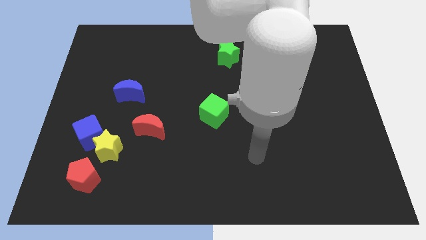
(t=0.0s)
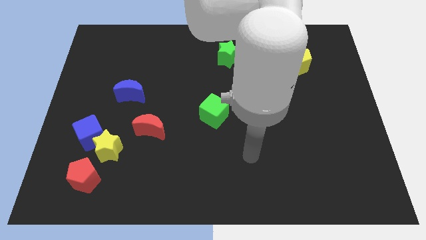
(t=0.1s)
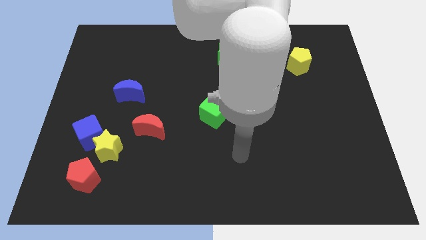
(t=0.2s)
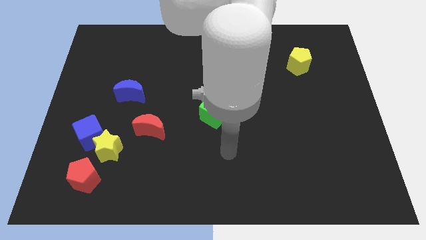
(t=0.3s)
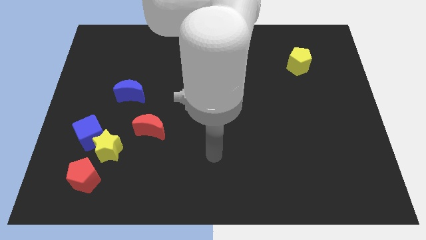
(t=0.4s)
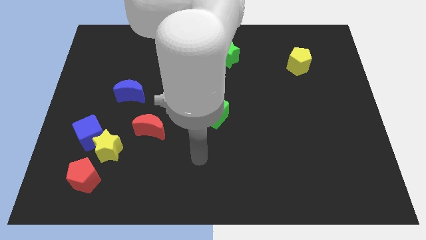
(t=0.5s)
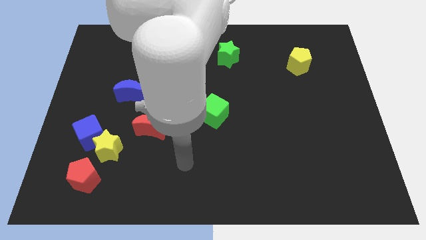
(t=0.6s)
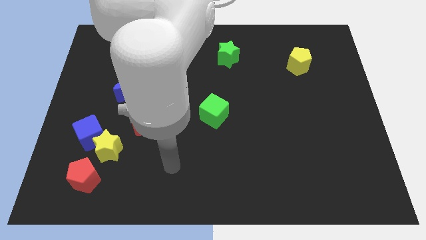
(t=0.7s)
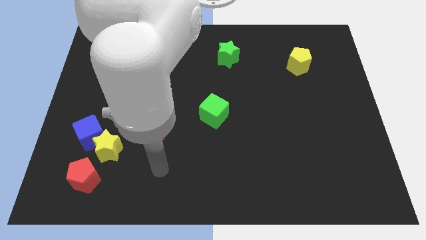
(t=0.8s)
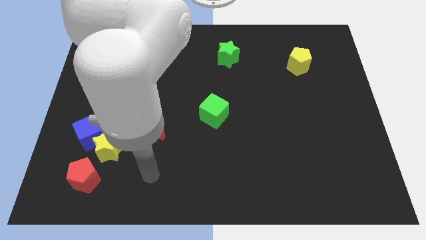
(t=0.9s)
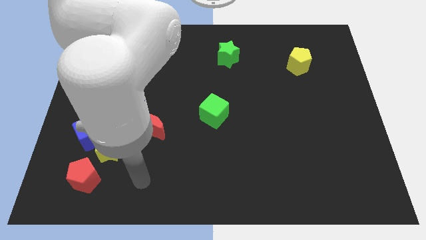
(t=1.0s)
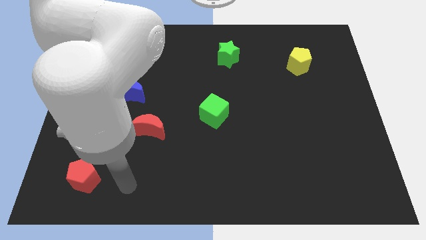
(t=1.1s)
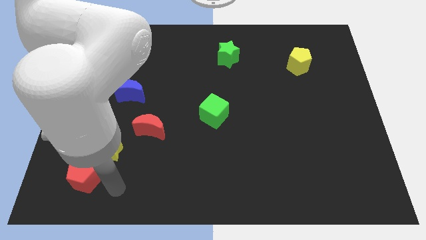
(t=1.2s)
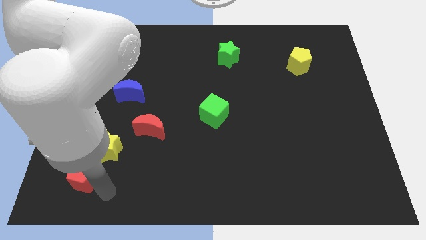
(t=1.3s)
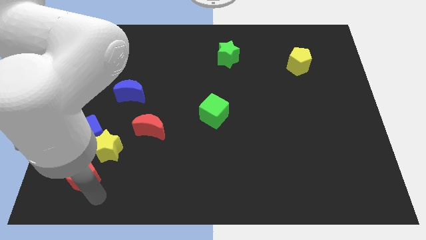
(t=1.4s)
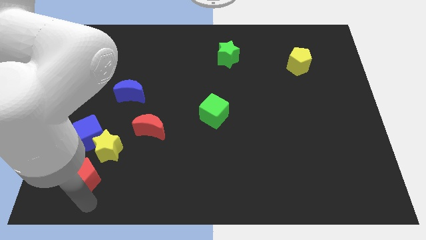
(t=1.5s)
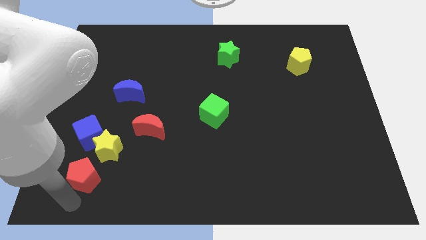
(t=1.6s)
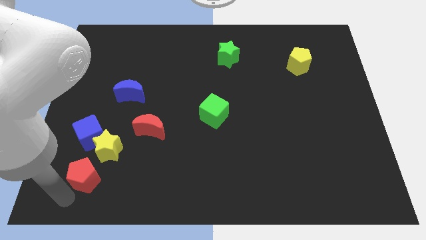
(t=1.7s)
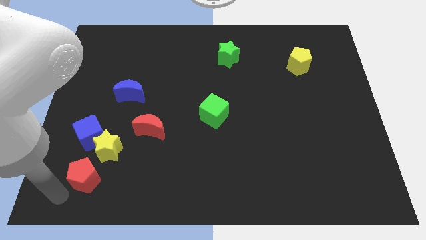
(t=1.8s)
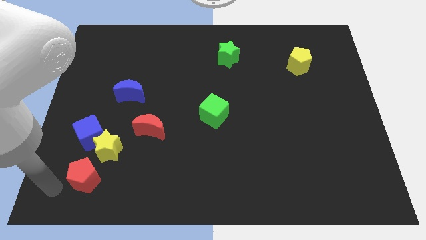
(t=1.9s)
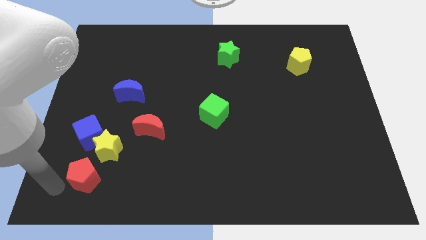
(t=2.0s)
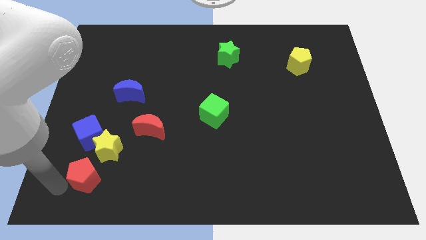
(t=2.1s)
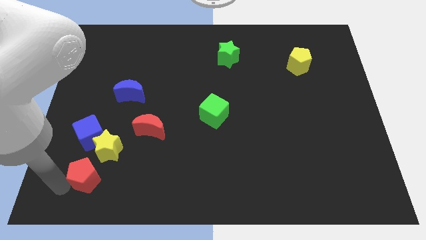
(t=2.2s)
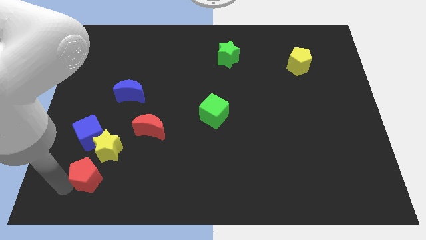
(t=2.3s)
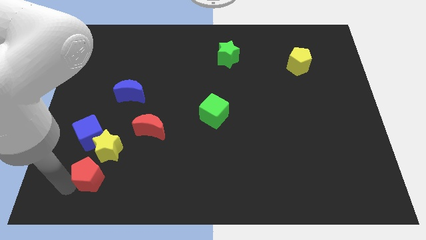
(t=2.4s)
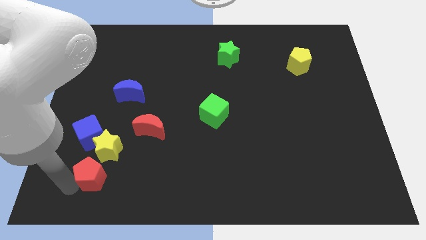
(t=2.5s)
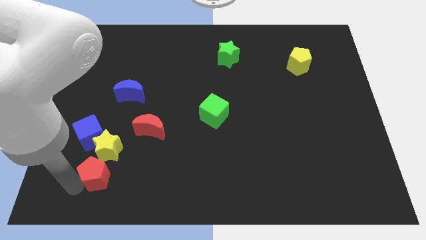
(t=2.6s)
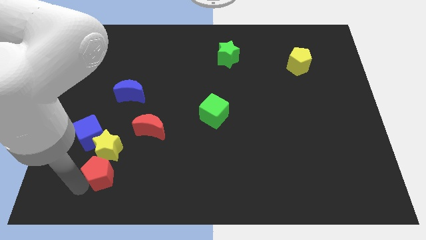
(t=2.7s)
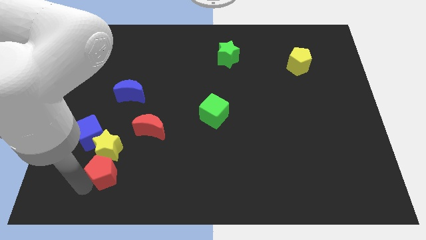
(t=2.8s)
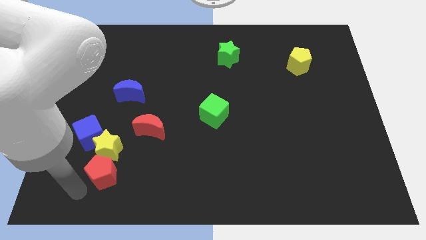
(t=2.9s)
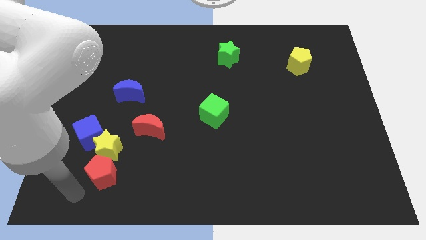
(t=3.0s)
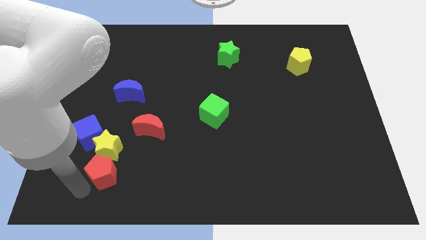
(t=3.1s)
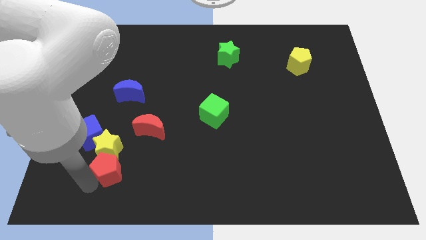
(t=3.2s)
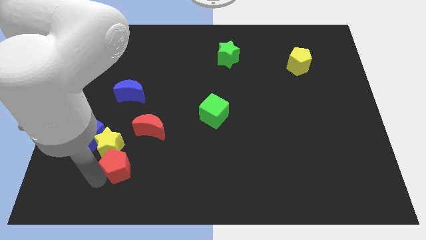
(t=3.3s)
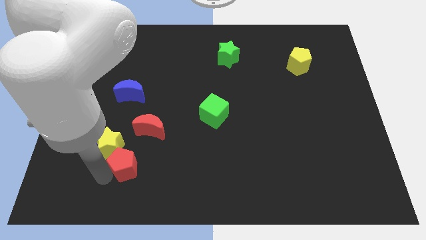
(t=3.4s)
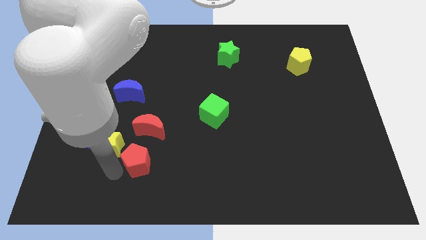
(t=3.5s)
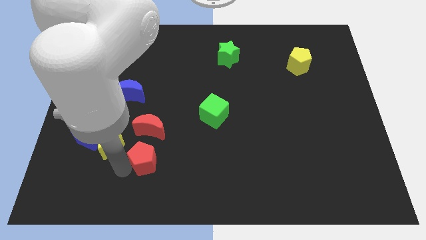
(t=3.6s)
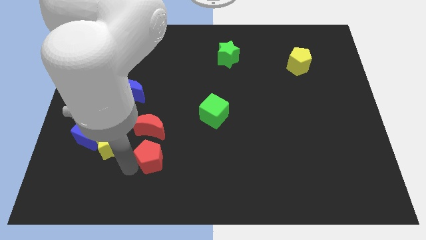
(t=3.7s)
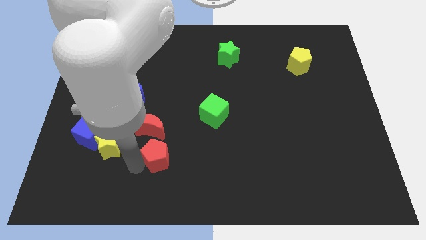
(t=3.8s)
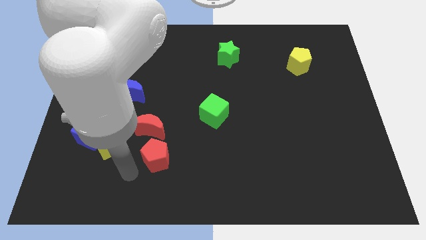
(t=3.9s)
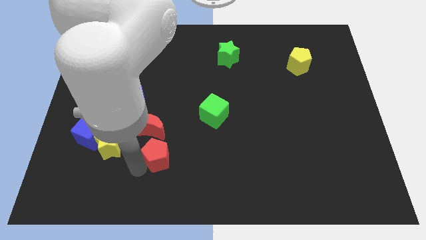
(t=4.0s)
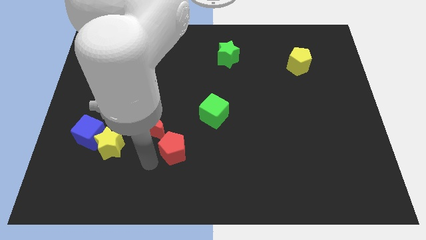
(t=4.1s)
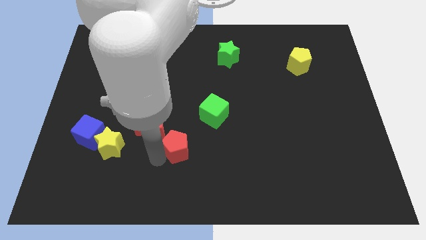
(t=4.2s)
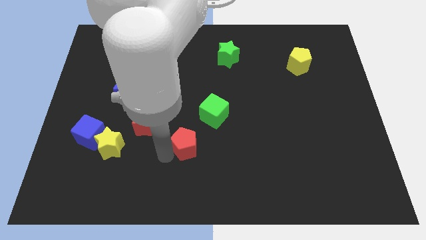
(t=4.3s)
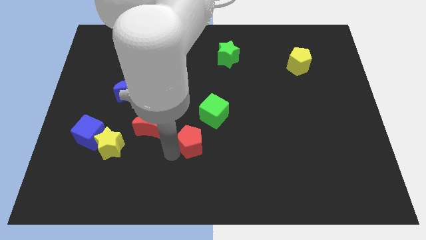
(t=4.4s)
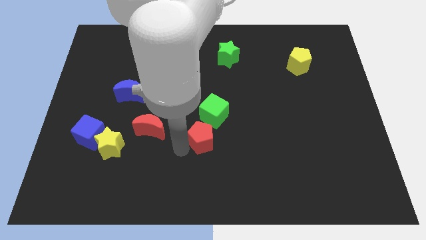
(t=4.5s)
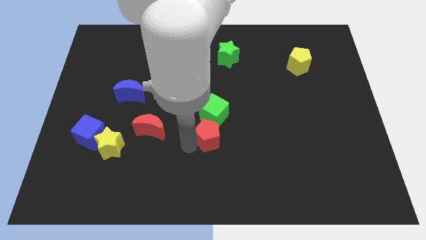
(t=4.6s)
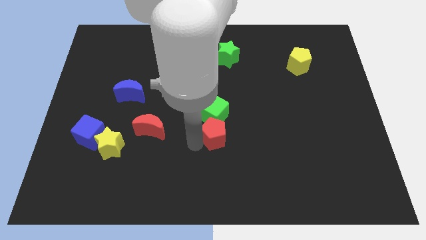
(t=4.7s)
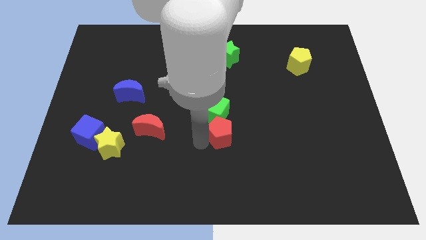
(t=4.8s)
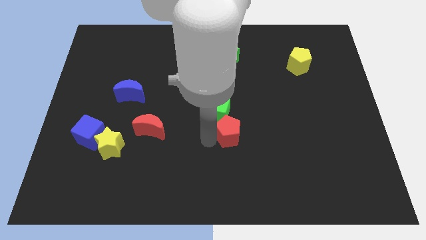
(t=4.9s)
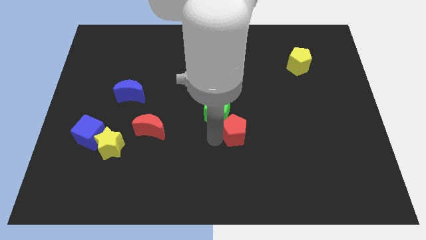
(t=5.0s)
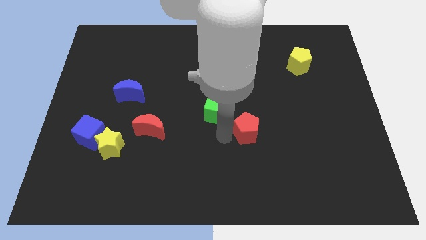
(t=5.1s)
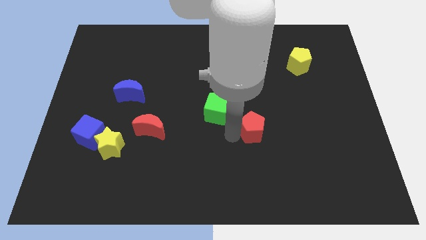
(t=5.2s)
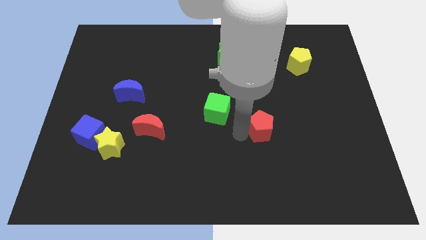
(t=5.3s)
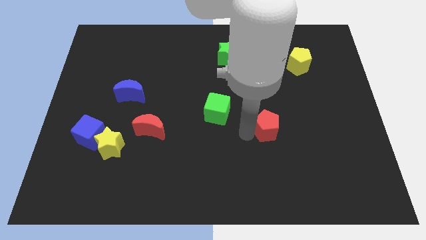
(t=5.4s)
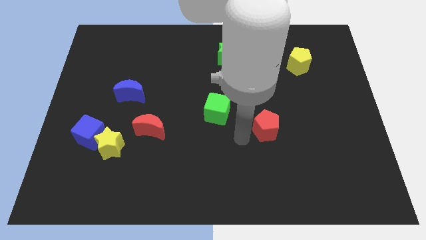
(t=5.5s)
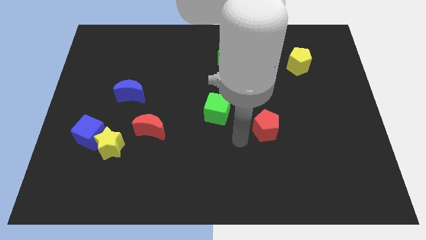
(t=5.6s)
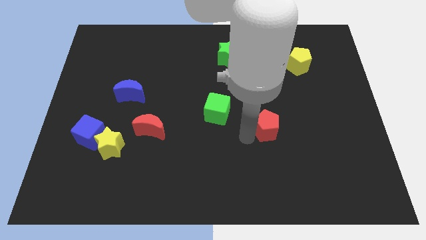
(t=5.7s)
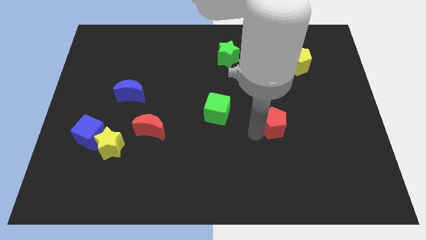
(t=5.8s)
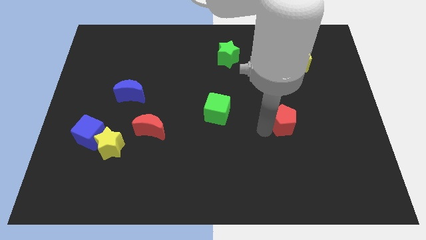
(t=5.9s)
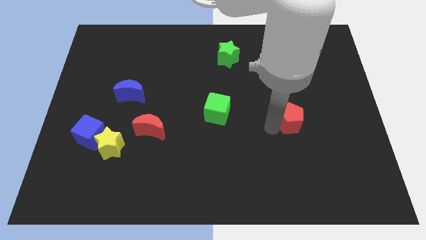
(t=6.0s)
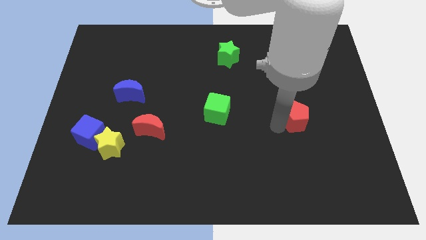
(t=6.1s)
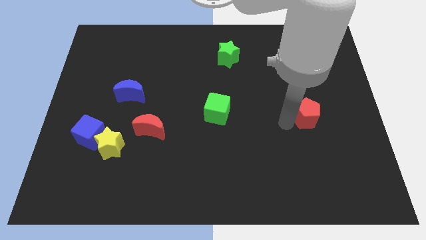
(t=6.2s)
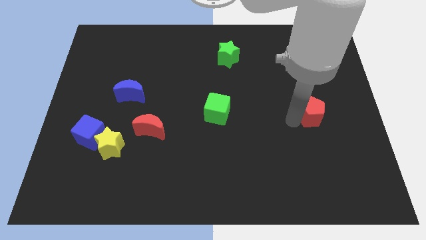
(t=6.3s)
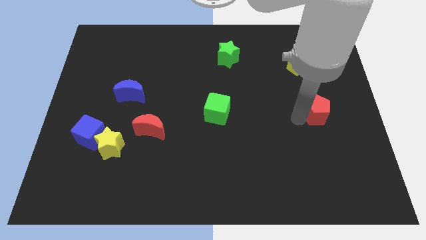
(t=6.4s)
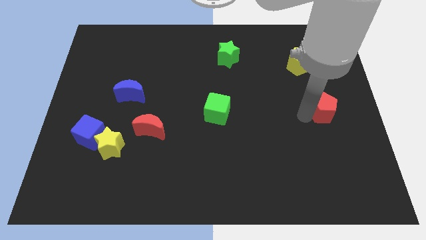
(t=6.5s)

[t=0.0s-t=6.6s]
slide the red pentagon to the center right
